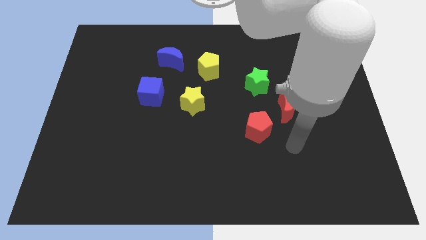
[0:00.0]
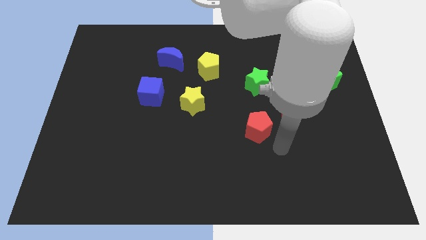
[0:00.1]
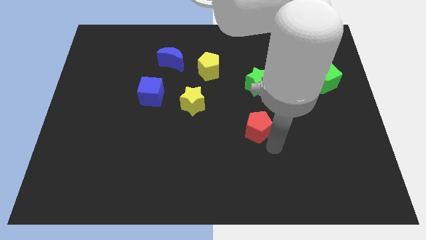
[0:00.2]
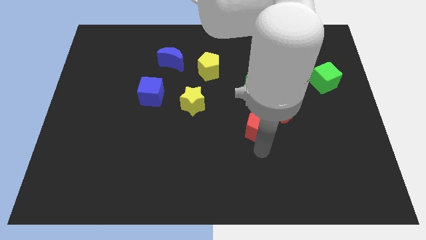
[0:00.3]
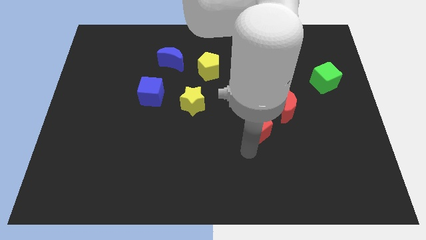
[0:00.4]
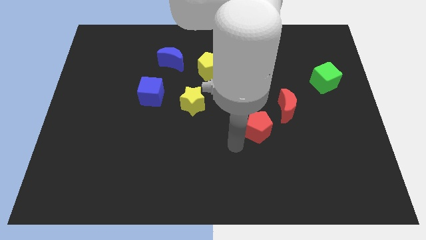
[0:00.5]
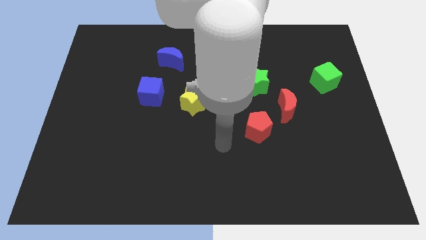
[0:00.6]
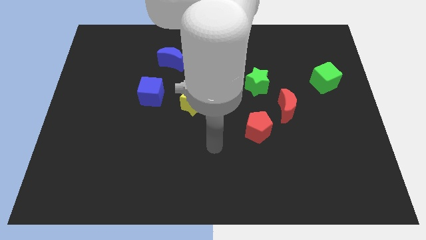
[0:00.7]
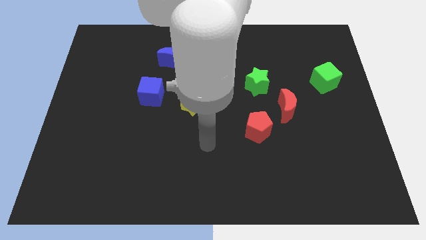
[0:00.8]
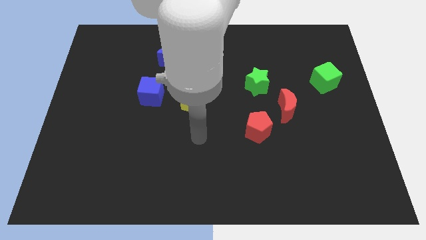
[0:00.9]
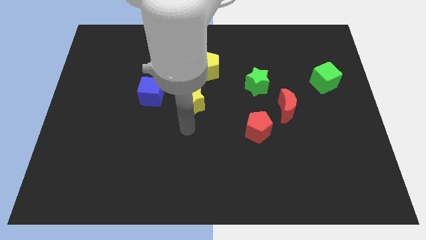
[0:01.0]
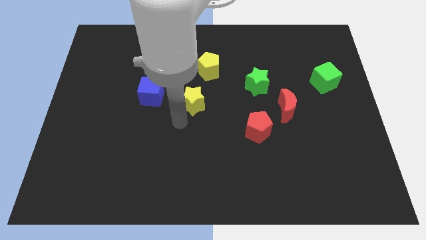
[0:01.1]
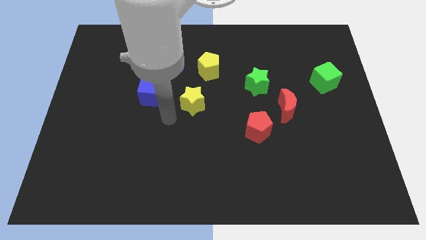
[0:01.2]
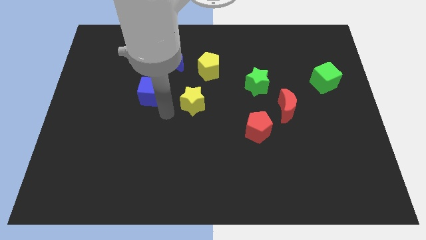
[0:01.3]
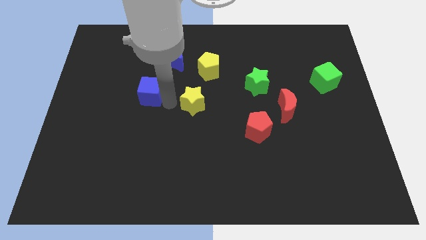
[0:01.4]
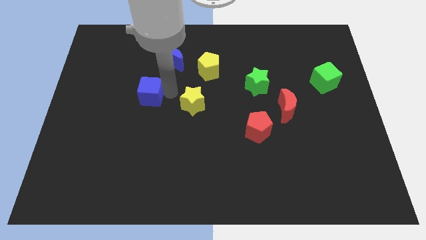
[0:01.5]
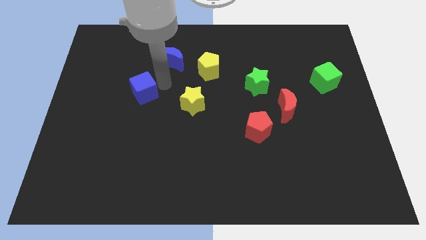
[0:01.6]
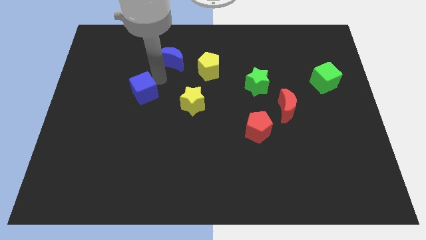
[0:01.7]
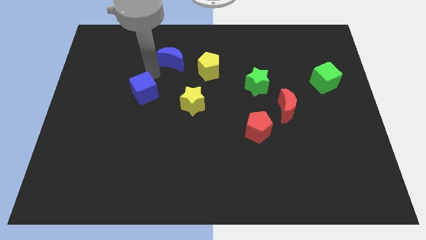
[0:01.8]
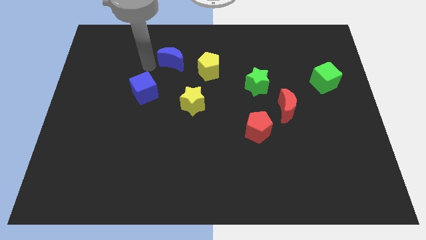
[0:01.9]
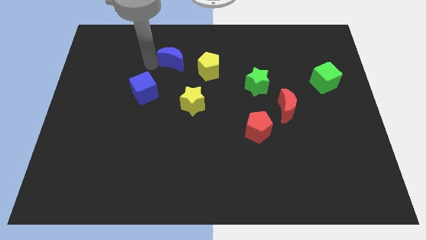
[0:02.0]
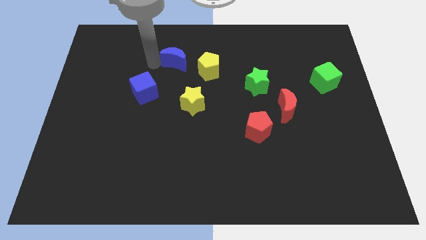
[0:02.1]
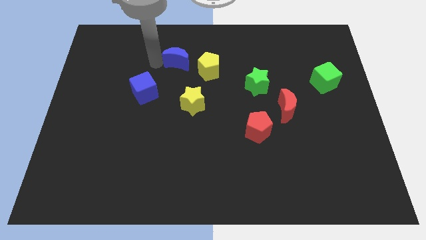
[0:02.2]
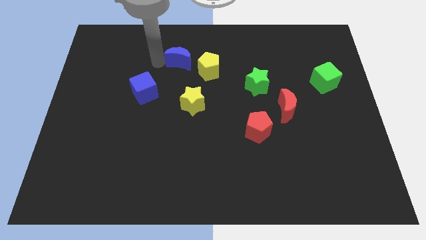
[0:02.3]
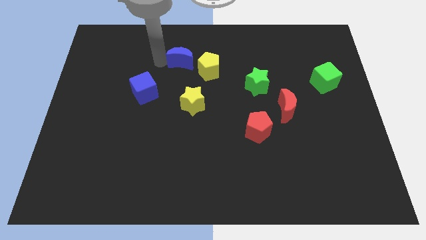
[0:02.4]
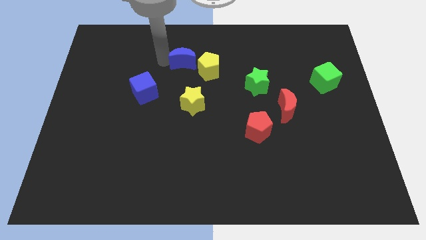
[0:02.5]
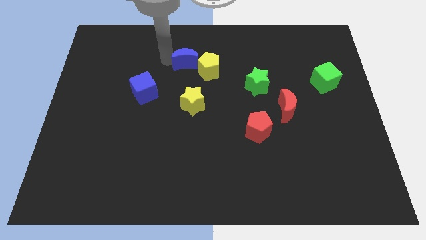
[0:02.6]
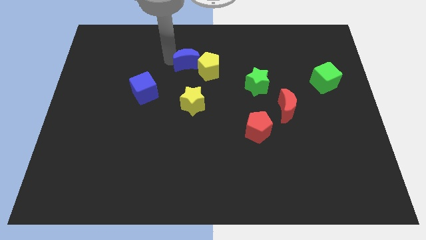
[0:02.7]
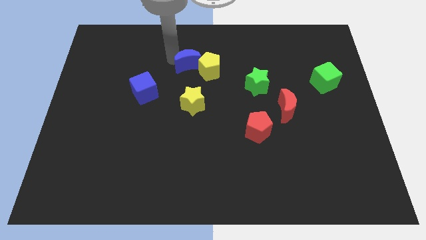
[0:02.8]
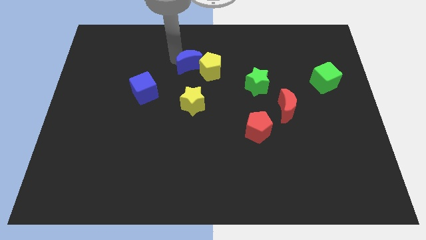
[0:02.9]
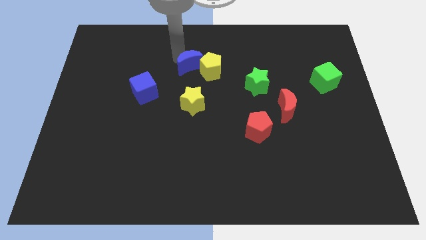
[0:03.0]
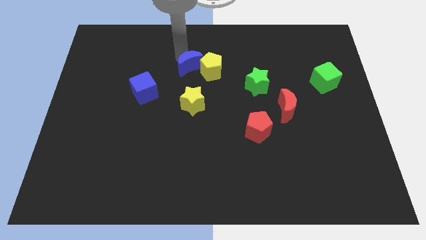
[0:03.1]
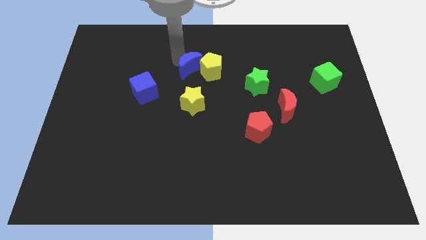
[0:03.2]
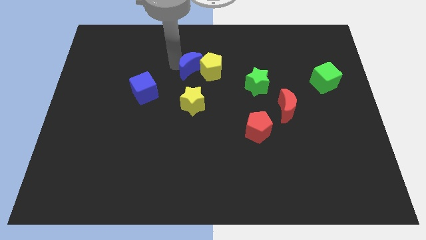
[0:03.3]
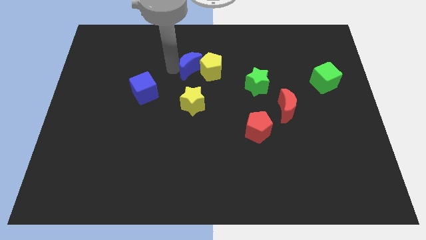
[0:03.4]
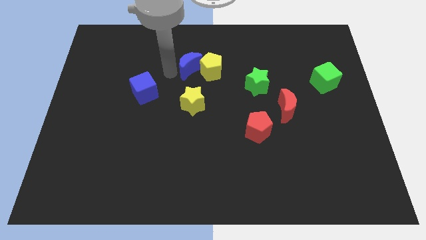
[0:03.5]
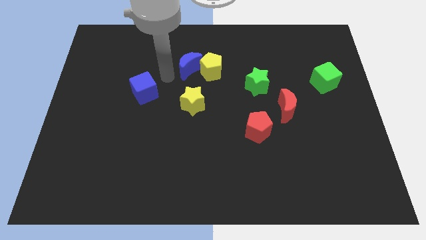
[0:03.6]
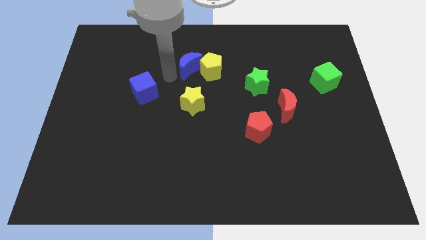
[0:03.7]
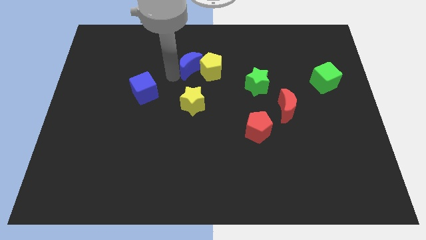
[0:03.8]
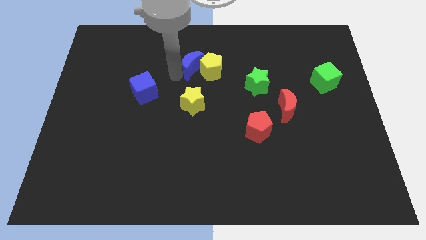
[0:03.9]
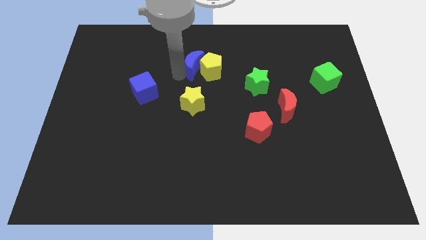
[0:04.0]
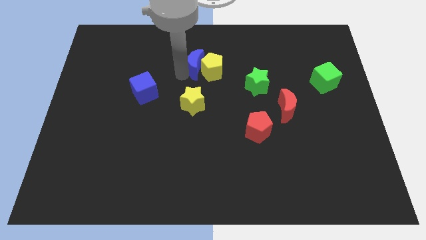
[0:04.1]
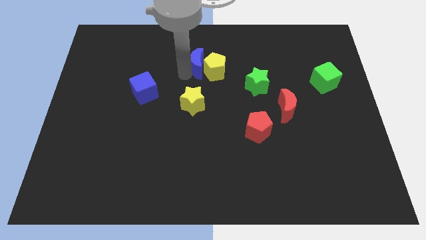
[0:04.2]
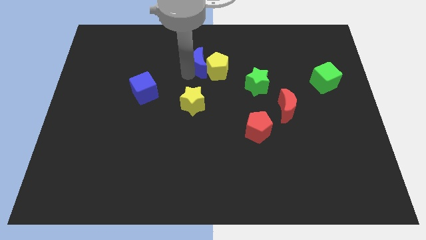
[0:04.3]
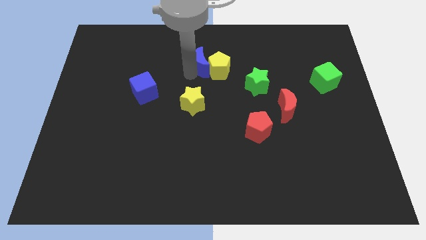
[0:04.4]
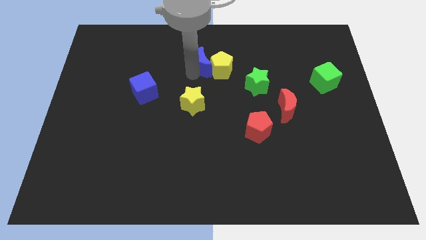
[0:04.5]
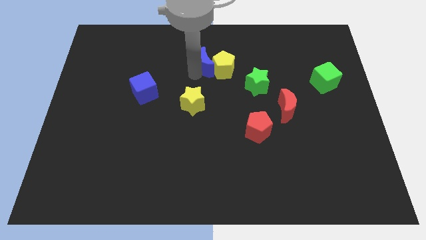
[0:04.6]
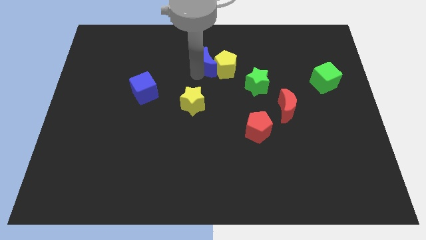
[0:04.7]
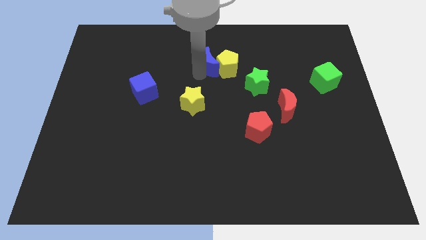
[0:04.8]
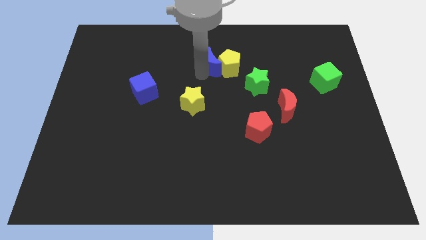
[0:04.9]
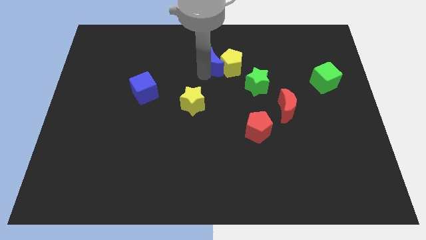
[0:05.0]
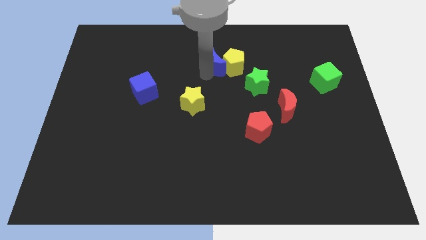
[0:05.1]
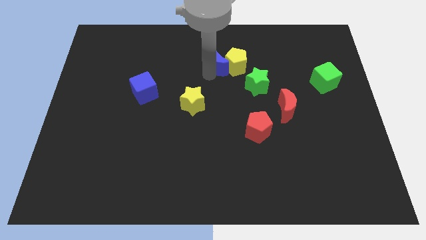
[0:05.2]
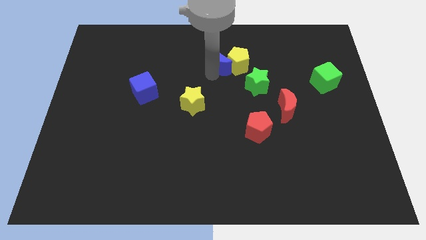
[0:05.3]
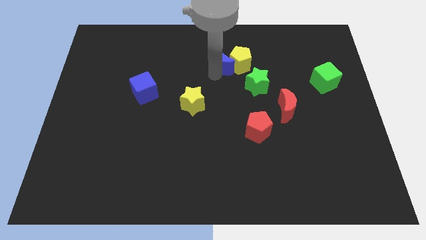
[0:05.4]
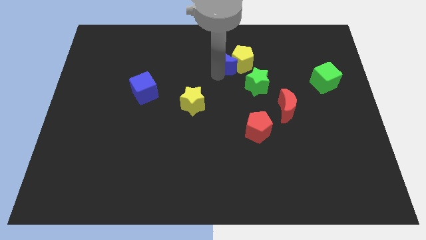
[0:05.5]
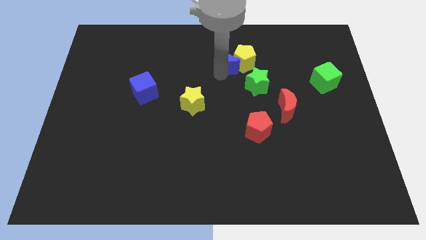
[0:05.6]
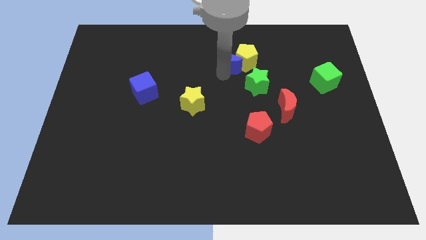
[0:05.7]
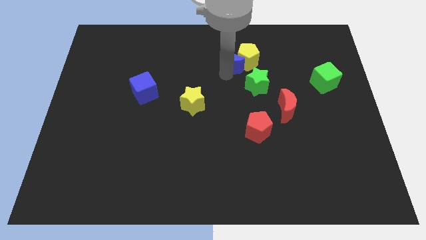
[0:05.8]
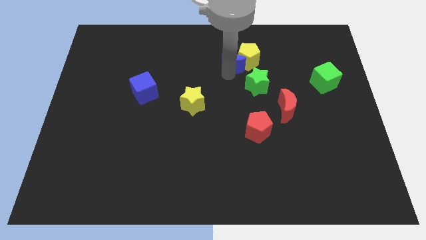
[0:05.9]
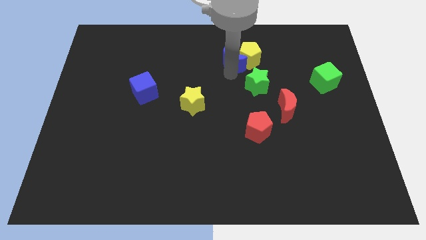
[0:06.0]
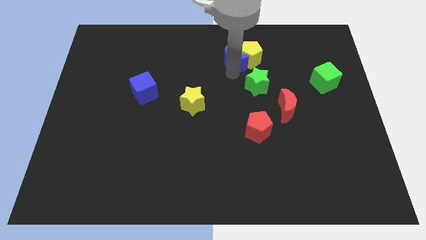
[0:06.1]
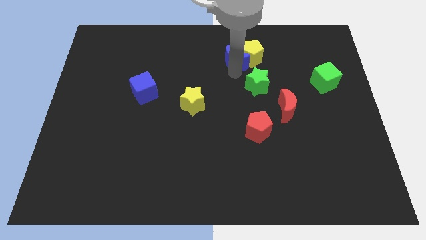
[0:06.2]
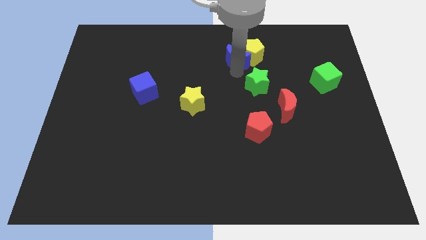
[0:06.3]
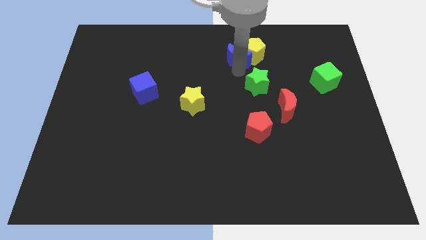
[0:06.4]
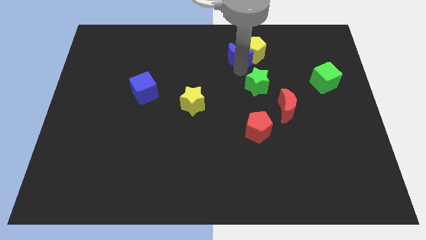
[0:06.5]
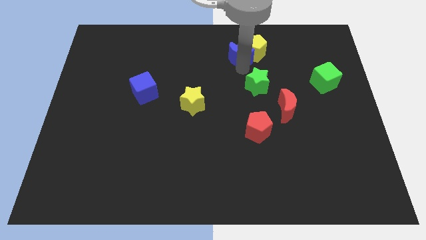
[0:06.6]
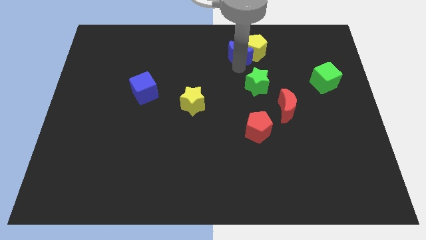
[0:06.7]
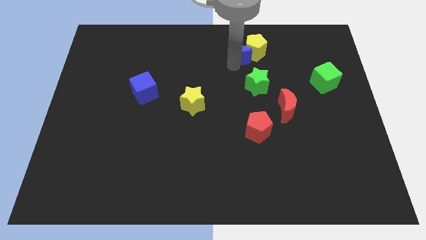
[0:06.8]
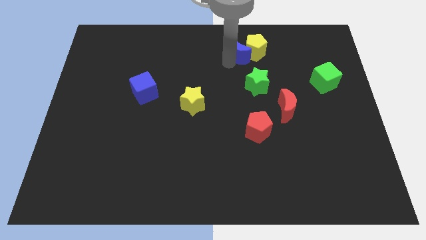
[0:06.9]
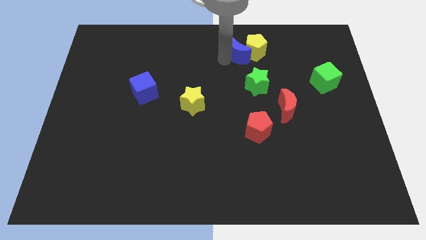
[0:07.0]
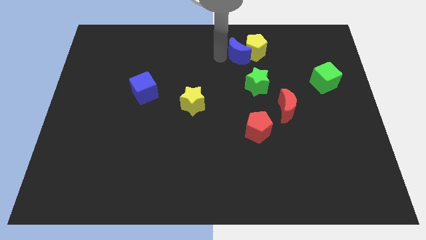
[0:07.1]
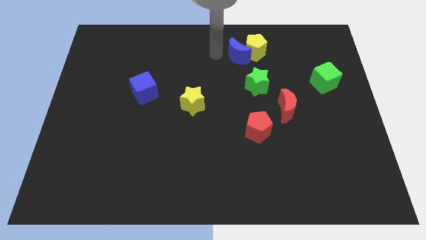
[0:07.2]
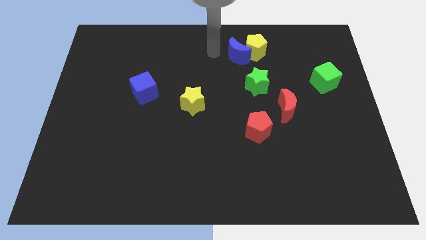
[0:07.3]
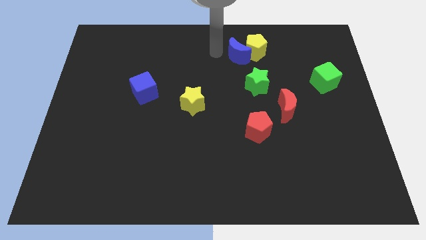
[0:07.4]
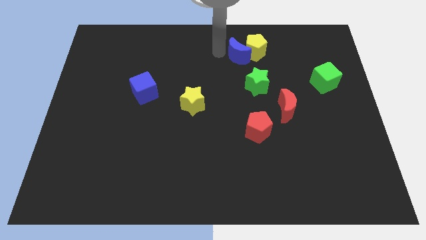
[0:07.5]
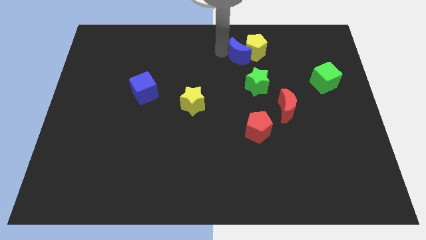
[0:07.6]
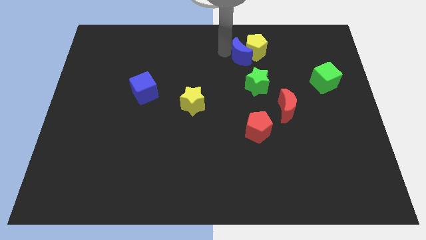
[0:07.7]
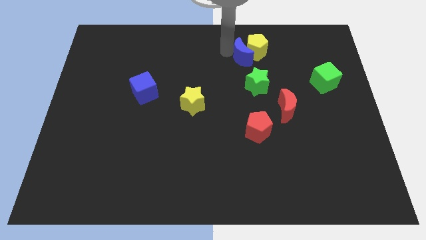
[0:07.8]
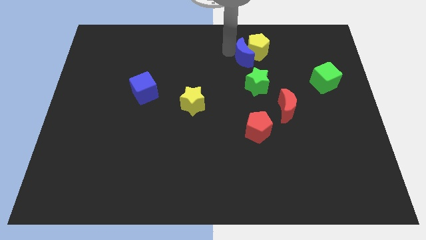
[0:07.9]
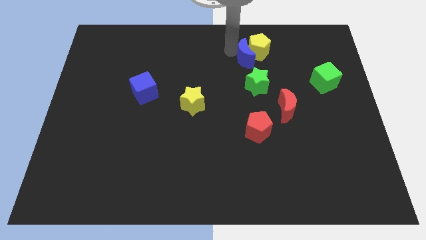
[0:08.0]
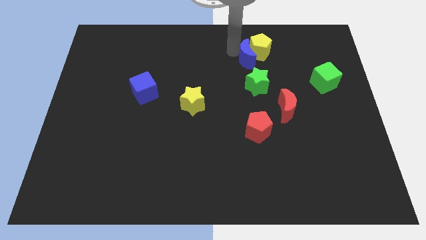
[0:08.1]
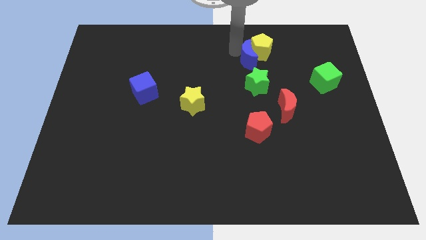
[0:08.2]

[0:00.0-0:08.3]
slide the blue moon right
